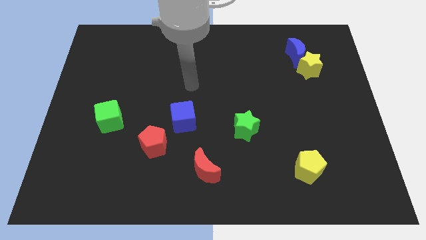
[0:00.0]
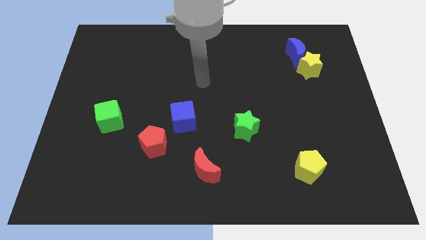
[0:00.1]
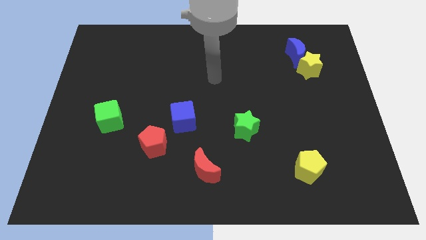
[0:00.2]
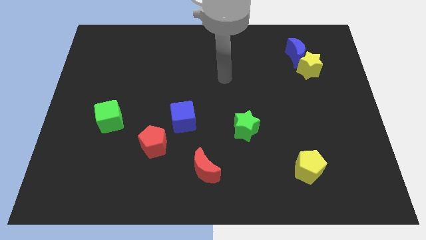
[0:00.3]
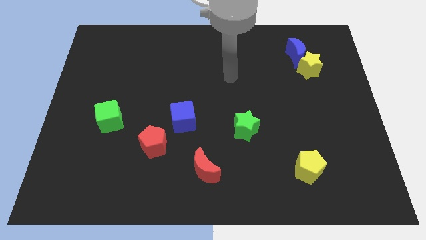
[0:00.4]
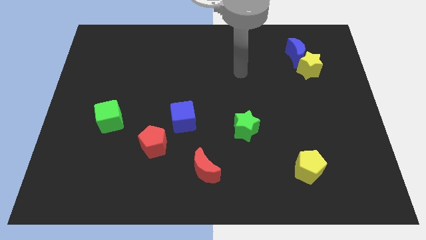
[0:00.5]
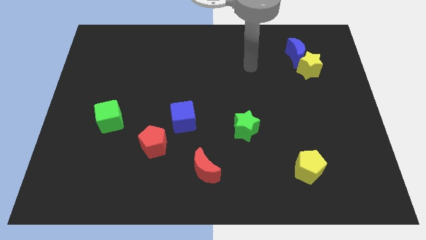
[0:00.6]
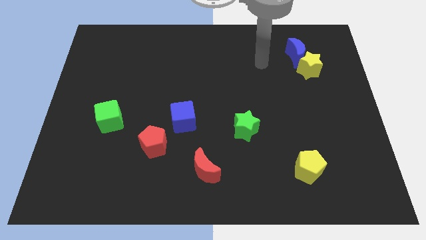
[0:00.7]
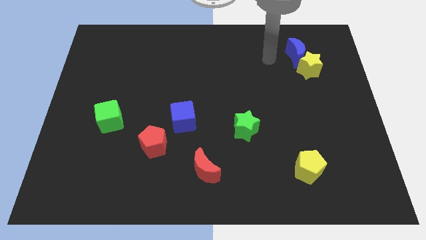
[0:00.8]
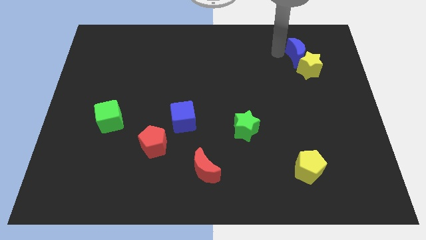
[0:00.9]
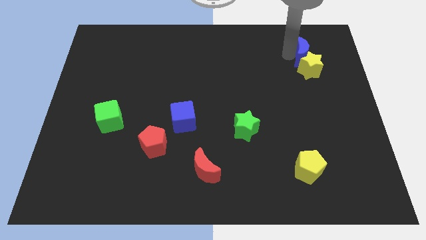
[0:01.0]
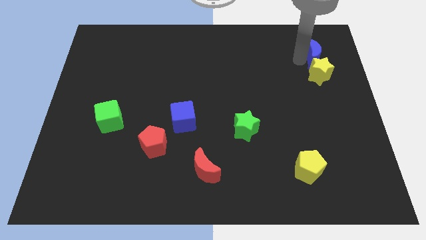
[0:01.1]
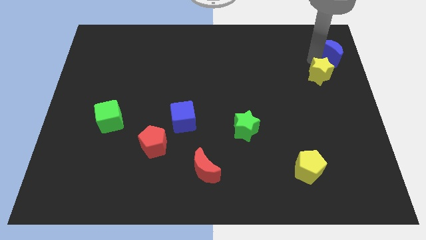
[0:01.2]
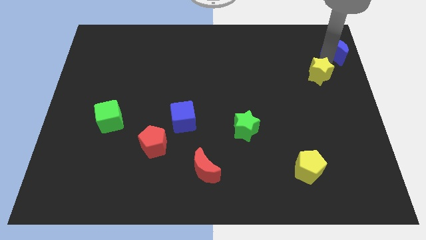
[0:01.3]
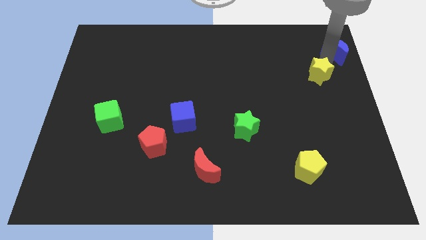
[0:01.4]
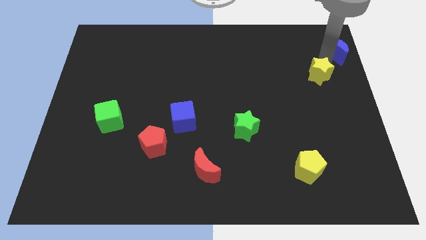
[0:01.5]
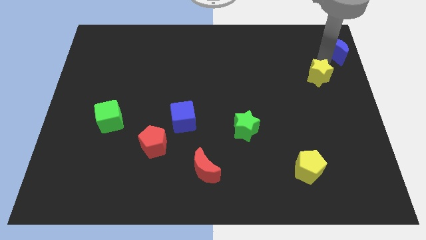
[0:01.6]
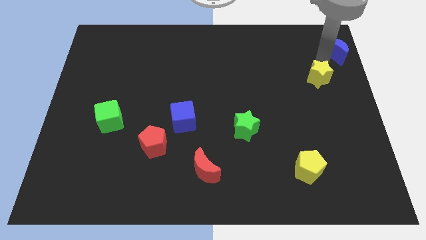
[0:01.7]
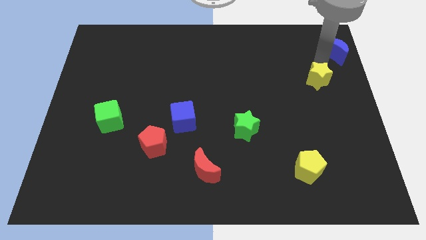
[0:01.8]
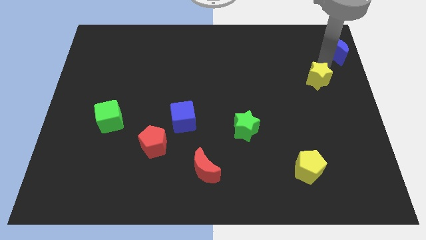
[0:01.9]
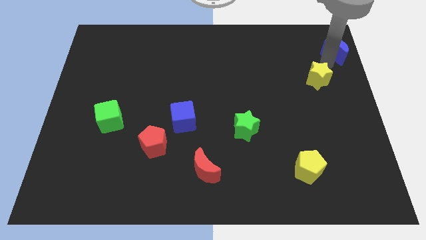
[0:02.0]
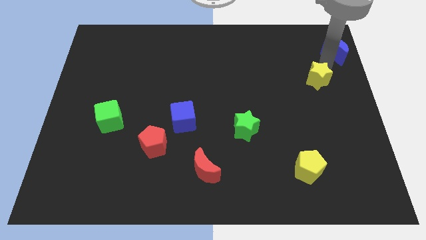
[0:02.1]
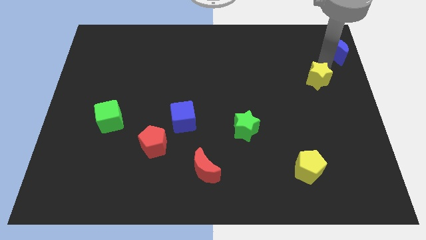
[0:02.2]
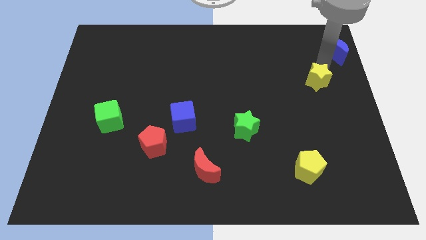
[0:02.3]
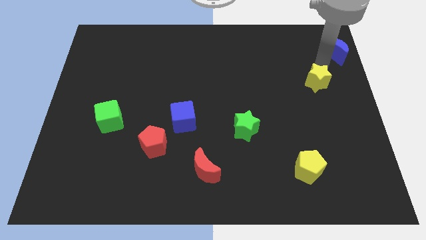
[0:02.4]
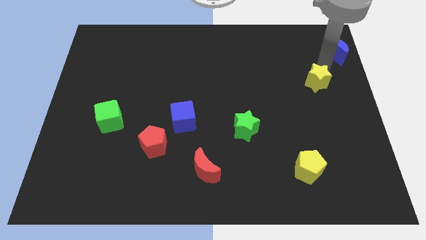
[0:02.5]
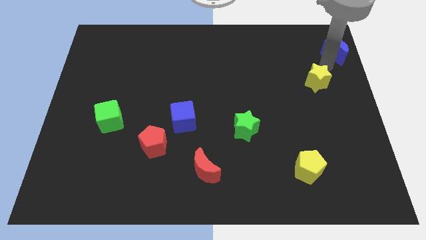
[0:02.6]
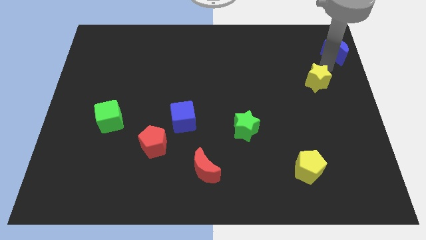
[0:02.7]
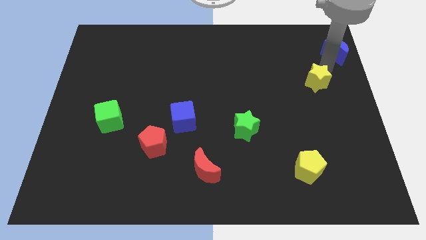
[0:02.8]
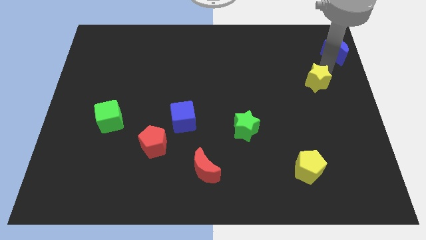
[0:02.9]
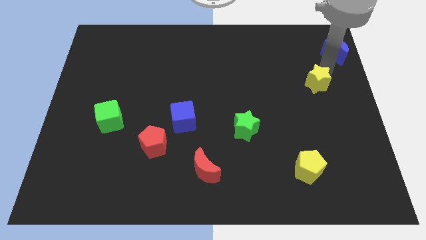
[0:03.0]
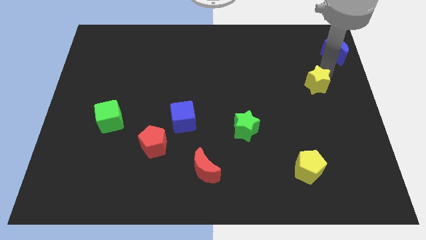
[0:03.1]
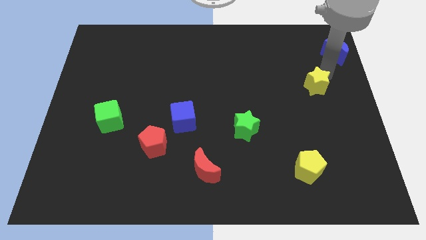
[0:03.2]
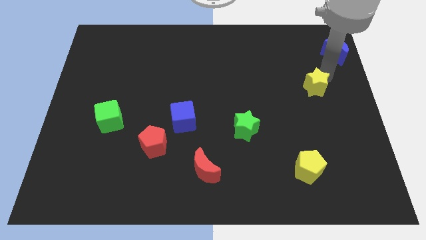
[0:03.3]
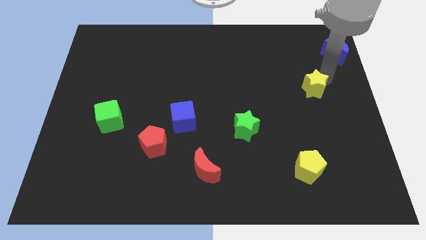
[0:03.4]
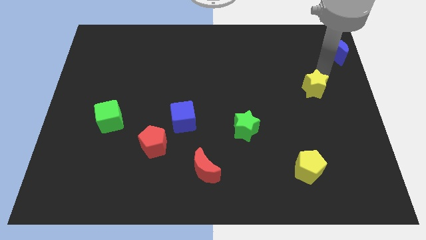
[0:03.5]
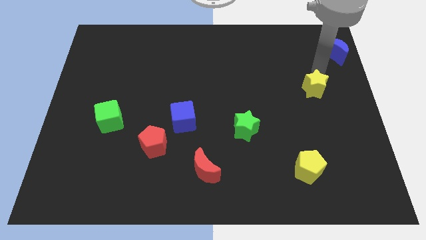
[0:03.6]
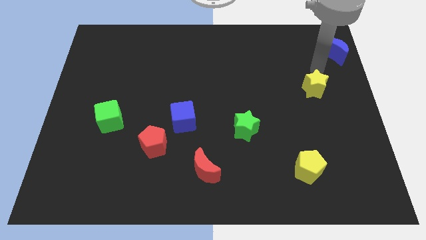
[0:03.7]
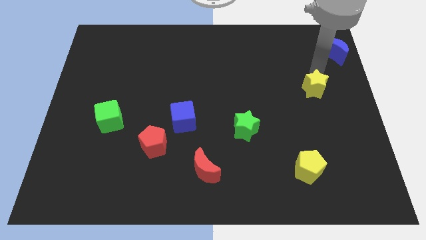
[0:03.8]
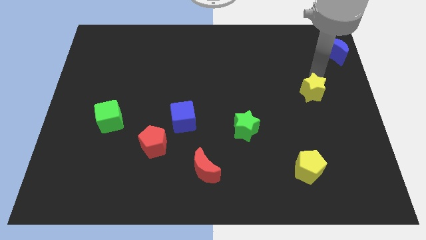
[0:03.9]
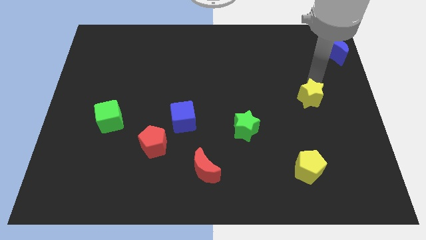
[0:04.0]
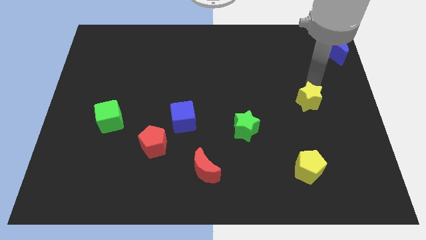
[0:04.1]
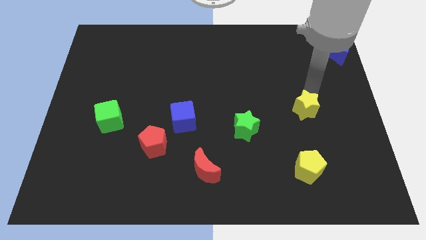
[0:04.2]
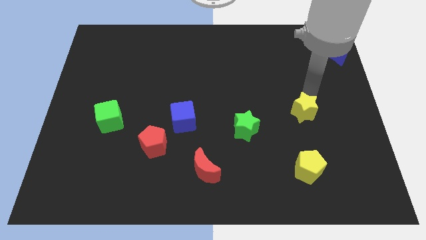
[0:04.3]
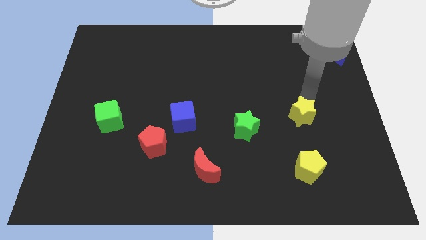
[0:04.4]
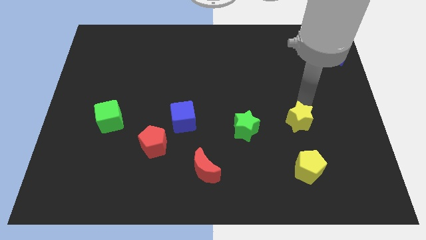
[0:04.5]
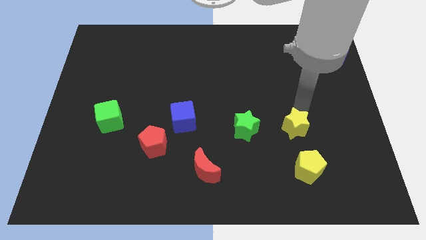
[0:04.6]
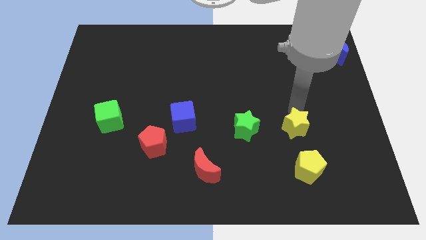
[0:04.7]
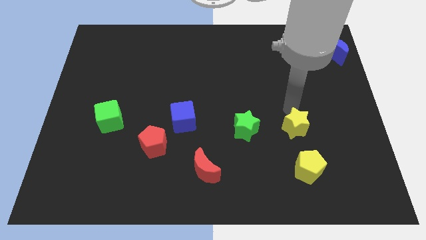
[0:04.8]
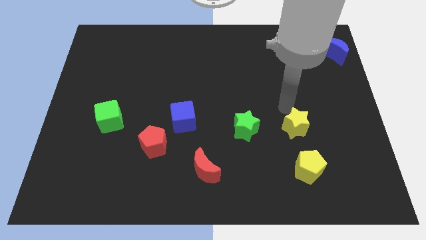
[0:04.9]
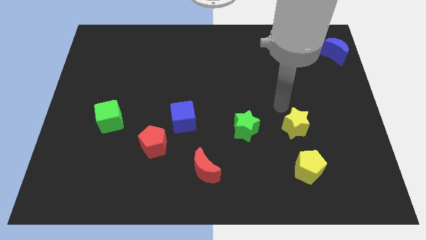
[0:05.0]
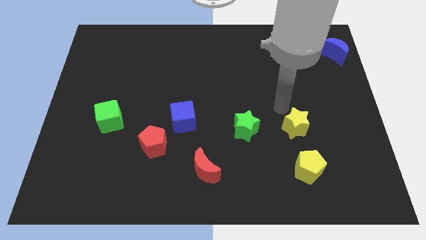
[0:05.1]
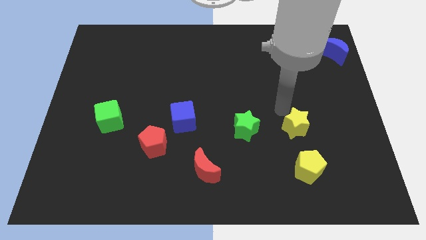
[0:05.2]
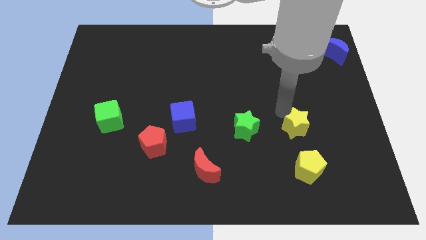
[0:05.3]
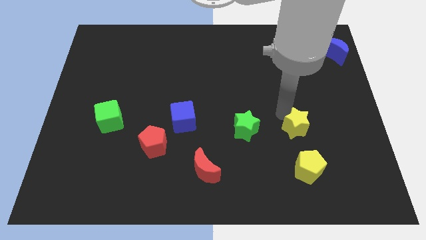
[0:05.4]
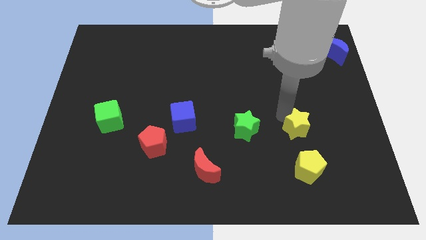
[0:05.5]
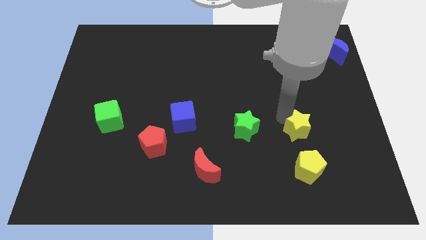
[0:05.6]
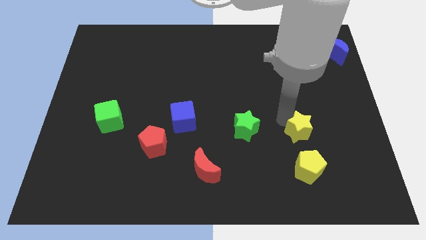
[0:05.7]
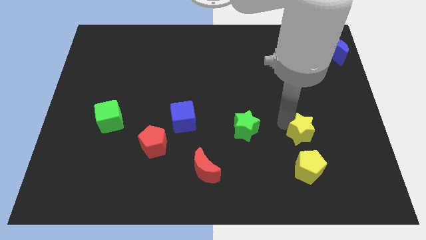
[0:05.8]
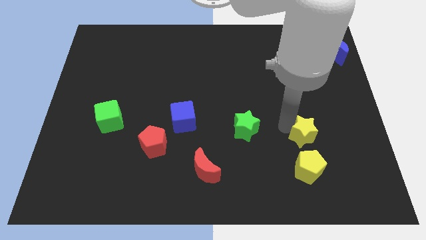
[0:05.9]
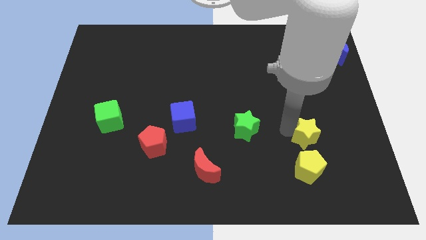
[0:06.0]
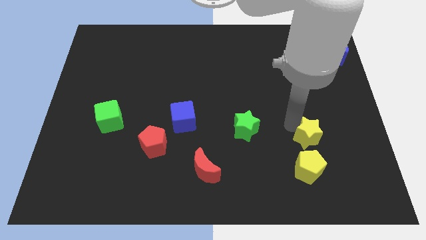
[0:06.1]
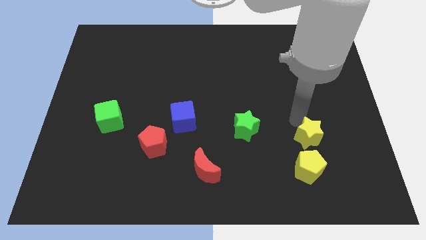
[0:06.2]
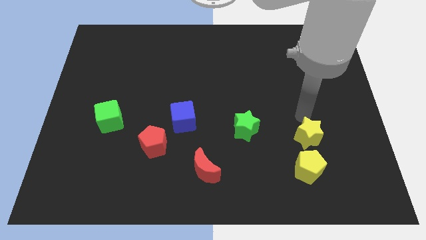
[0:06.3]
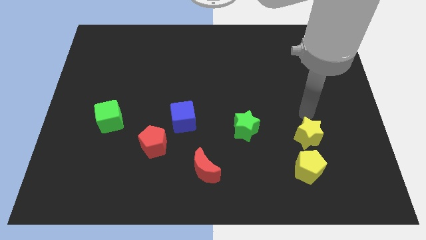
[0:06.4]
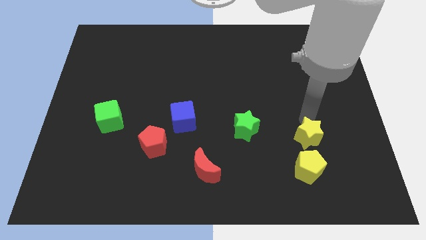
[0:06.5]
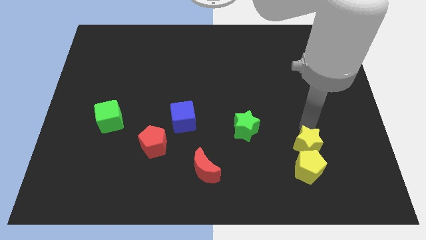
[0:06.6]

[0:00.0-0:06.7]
slide the yellow star to the yellow pentagon

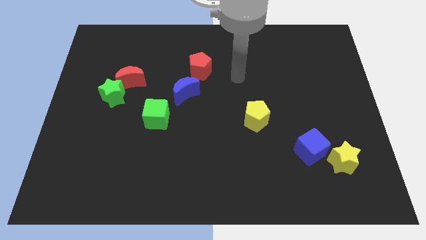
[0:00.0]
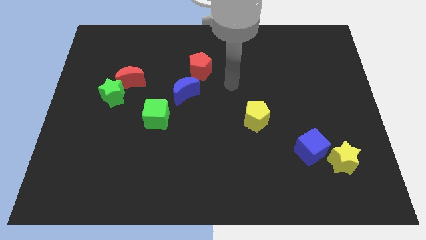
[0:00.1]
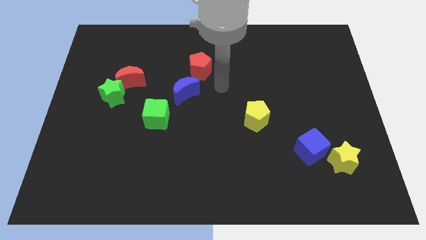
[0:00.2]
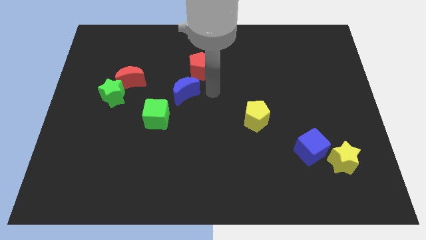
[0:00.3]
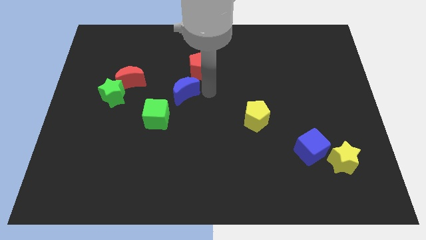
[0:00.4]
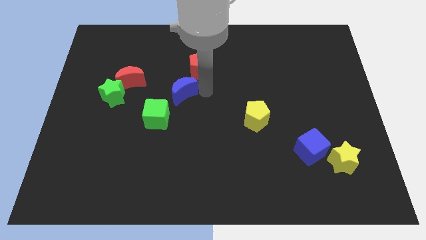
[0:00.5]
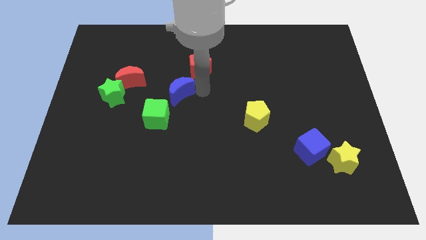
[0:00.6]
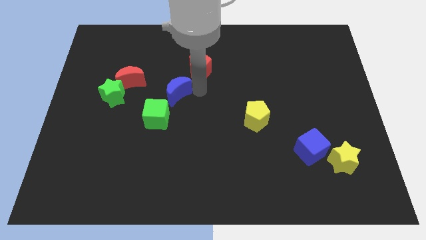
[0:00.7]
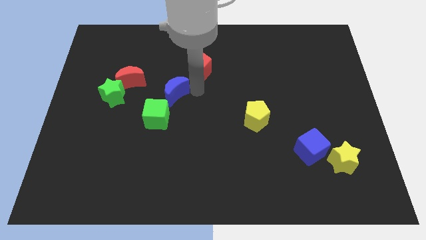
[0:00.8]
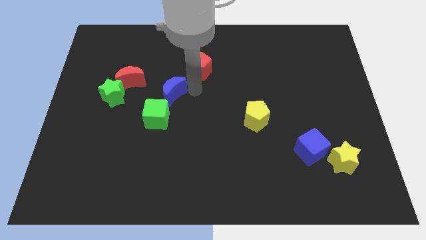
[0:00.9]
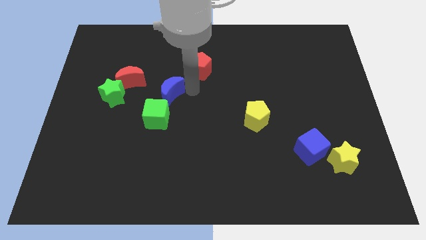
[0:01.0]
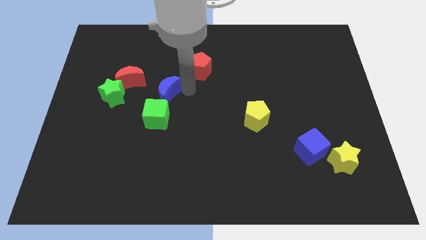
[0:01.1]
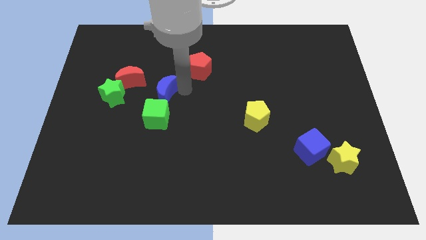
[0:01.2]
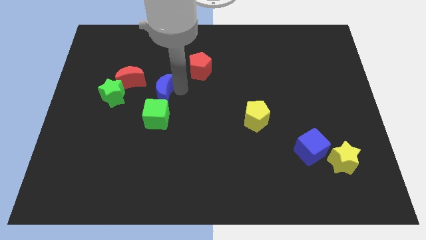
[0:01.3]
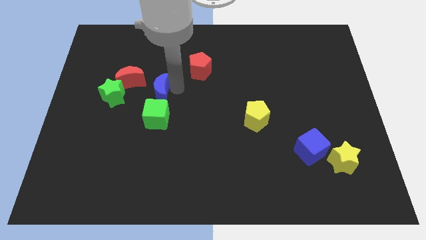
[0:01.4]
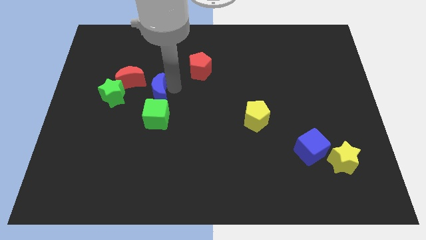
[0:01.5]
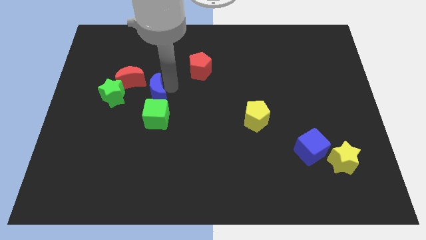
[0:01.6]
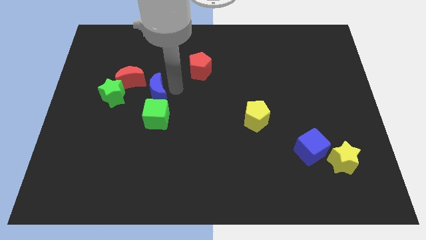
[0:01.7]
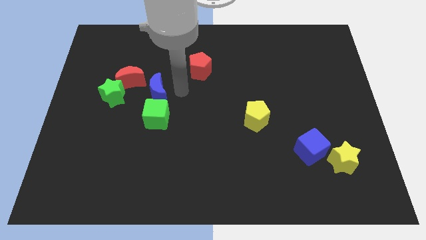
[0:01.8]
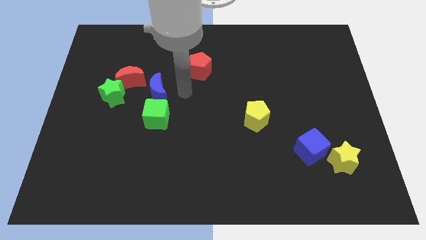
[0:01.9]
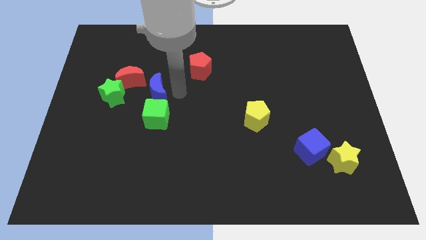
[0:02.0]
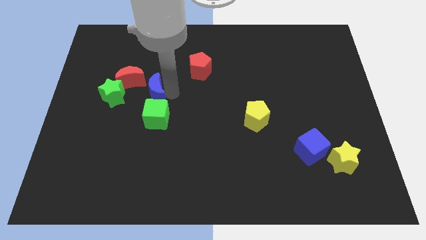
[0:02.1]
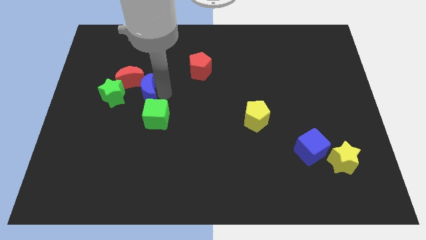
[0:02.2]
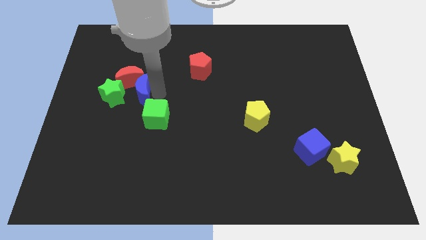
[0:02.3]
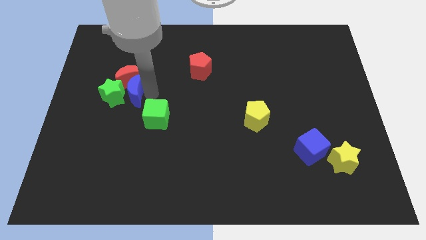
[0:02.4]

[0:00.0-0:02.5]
move the blue moon towards the green star
